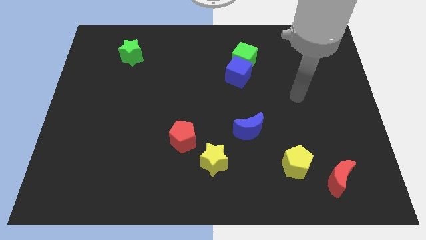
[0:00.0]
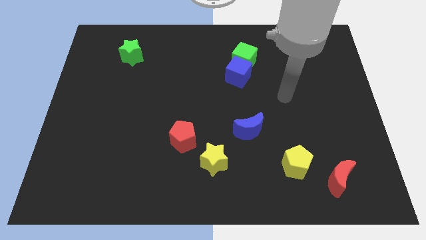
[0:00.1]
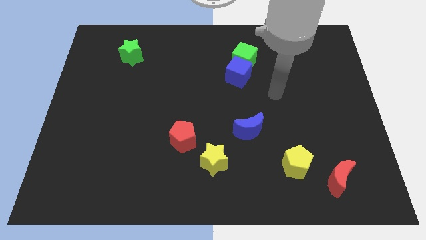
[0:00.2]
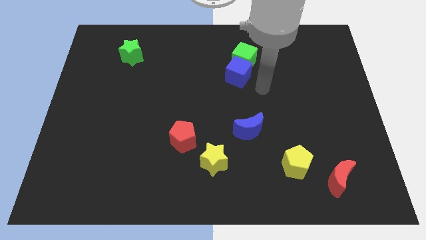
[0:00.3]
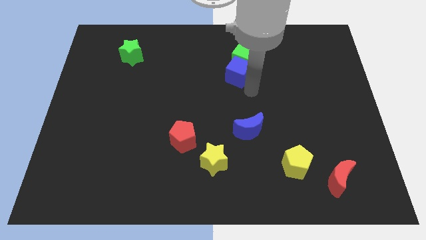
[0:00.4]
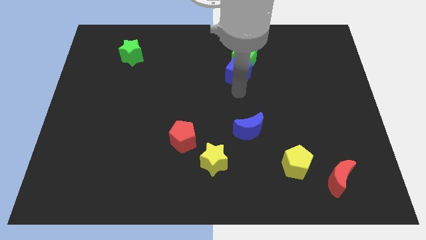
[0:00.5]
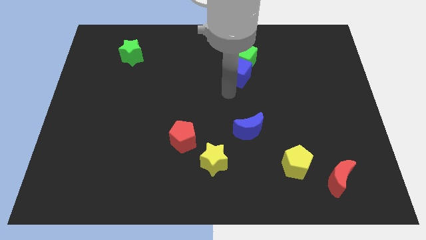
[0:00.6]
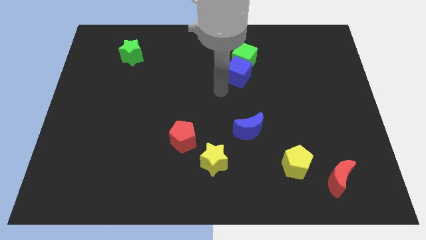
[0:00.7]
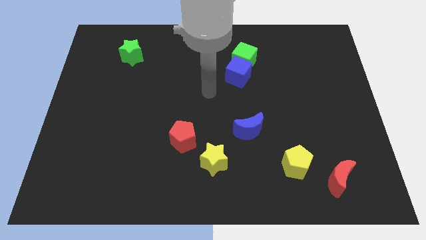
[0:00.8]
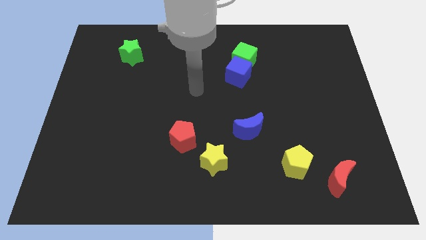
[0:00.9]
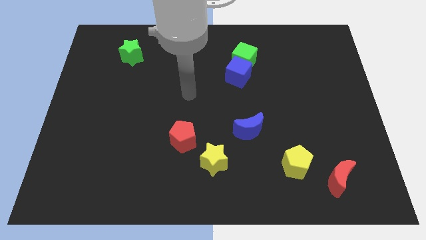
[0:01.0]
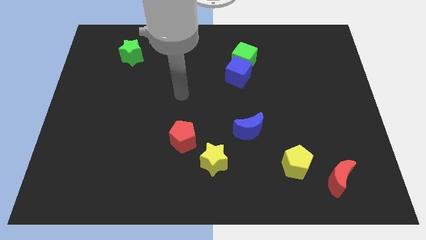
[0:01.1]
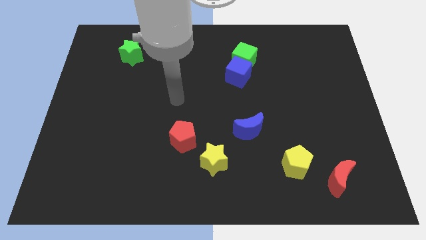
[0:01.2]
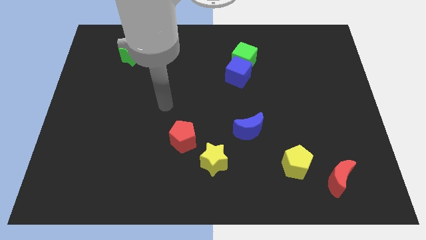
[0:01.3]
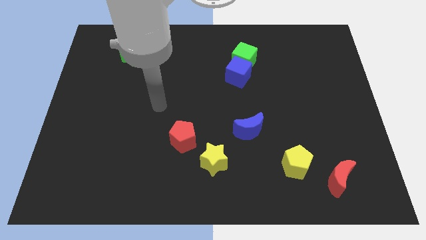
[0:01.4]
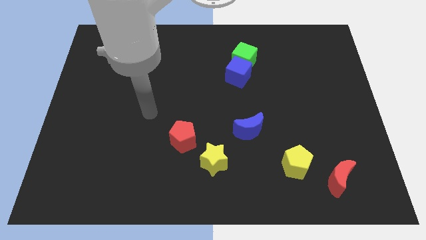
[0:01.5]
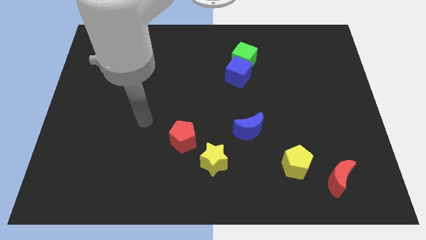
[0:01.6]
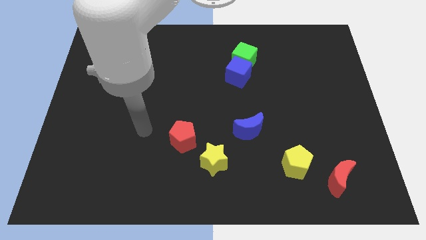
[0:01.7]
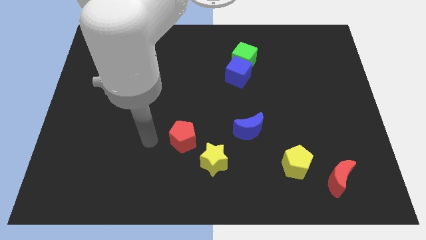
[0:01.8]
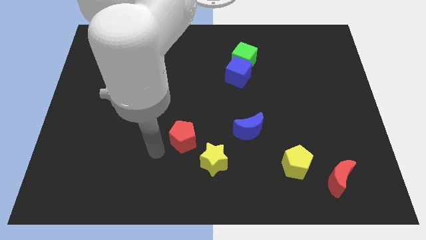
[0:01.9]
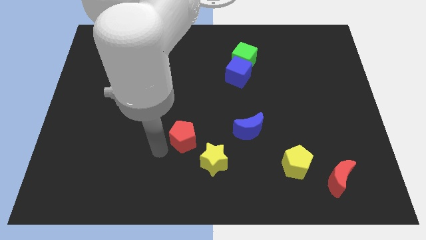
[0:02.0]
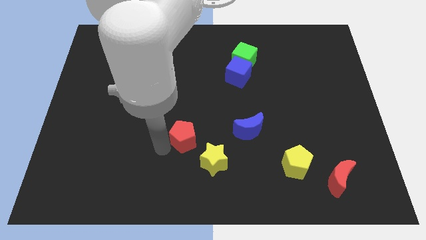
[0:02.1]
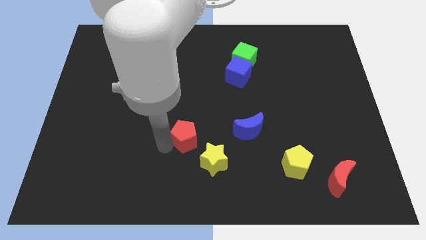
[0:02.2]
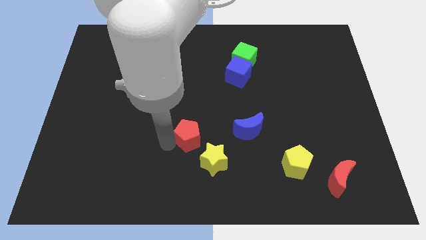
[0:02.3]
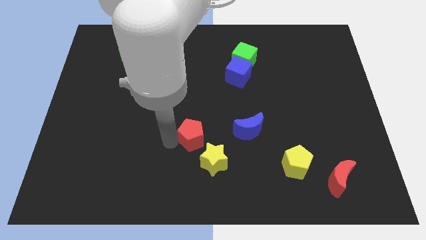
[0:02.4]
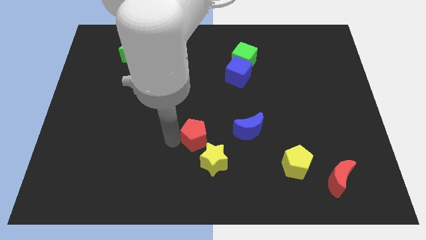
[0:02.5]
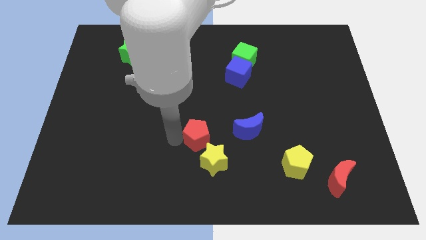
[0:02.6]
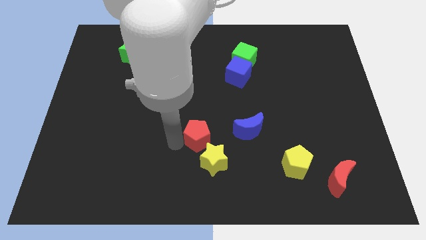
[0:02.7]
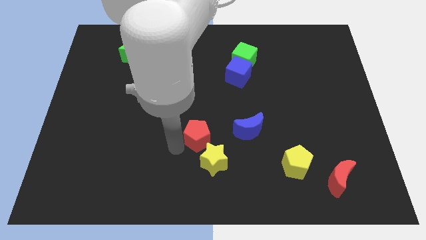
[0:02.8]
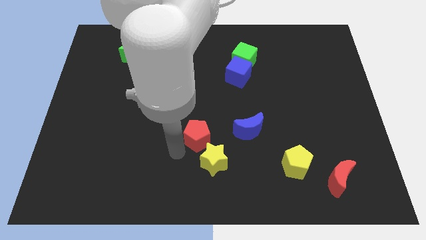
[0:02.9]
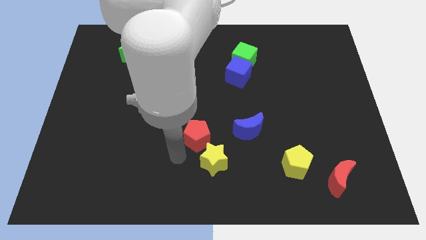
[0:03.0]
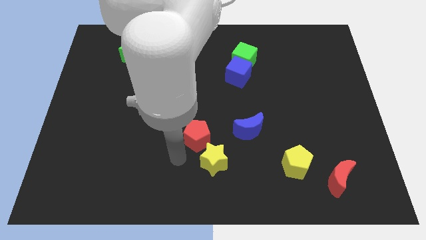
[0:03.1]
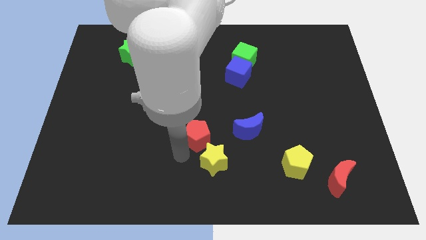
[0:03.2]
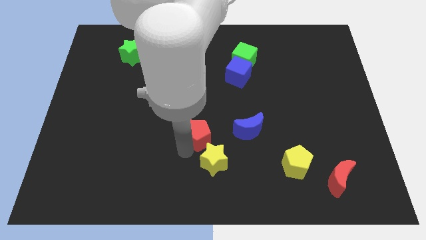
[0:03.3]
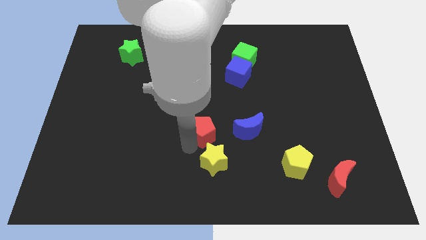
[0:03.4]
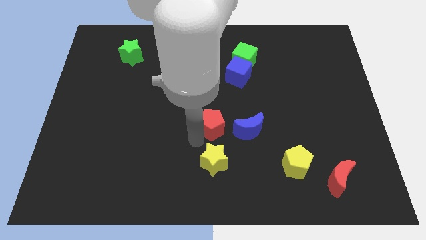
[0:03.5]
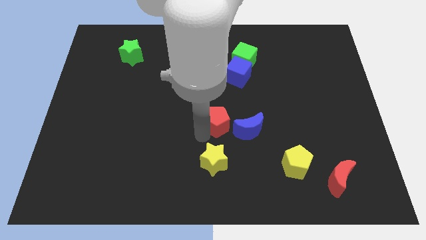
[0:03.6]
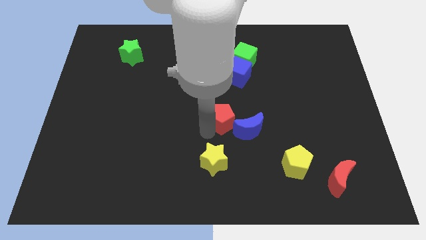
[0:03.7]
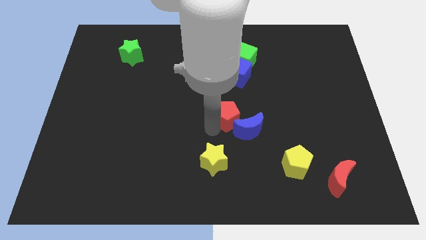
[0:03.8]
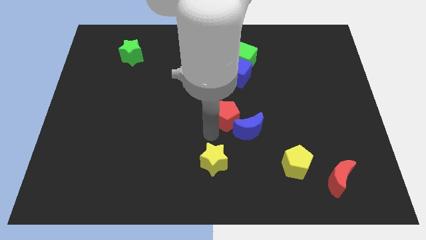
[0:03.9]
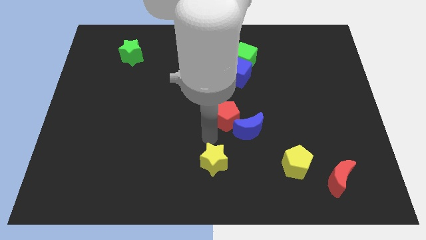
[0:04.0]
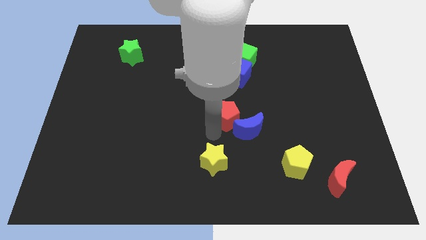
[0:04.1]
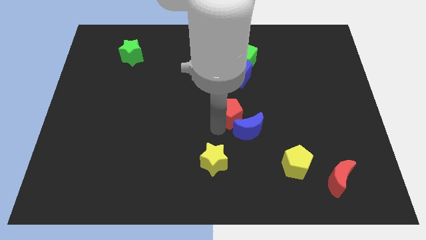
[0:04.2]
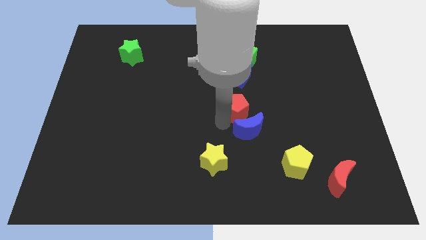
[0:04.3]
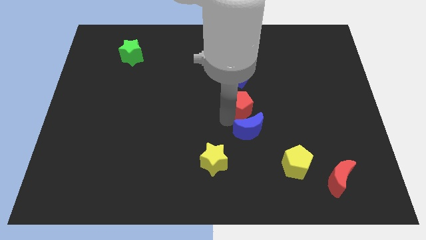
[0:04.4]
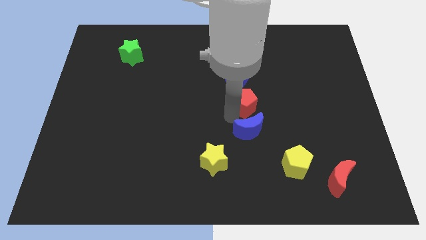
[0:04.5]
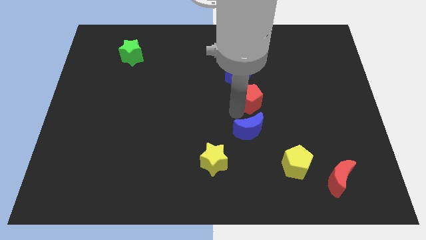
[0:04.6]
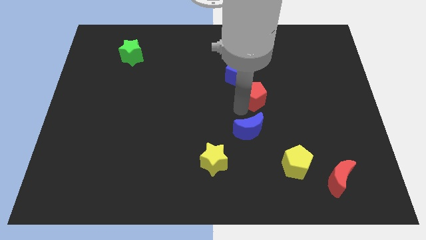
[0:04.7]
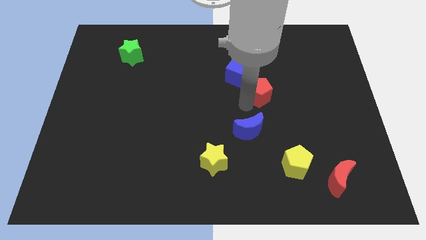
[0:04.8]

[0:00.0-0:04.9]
slide the red pentagon diagonally upwards and to the right

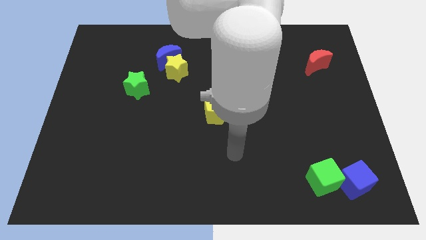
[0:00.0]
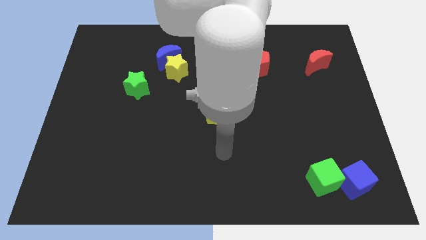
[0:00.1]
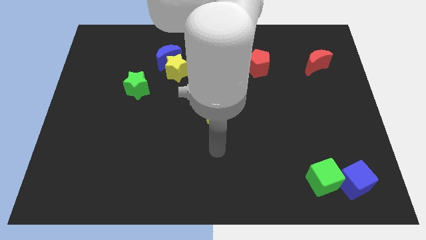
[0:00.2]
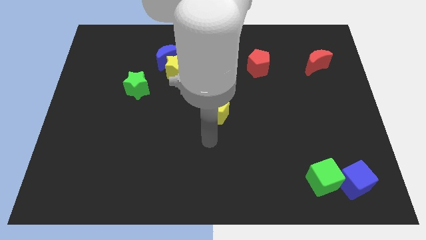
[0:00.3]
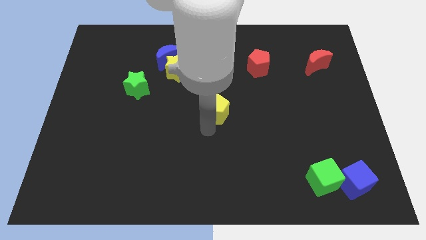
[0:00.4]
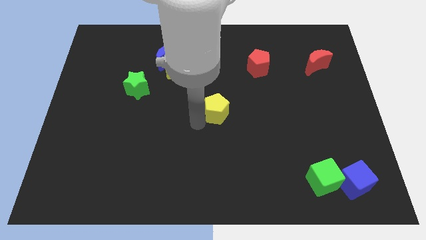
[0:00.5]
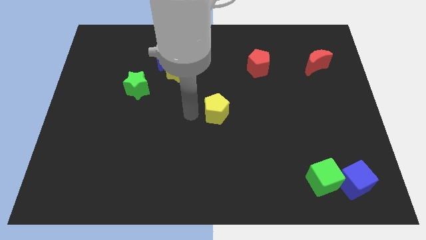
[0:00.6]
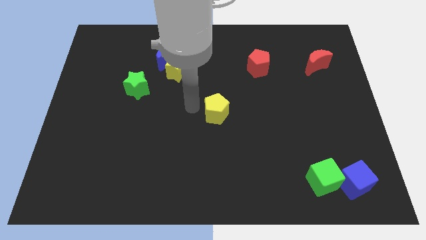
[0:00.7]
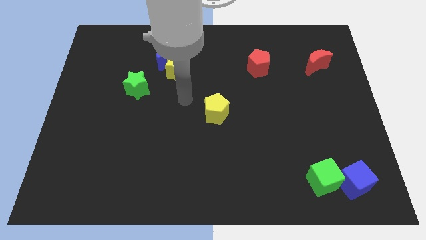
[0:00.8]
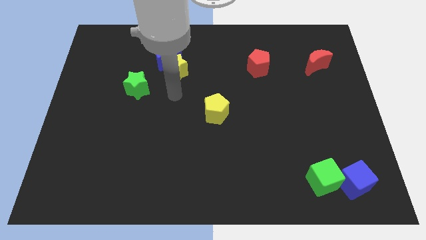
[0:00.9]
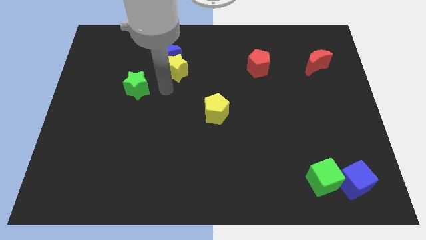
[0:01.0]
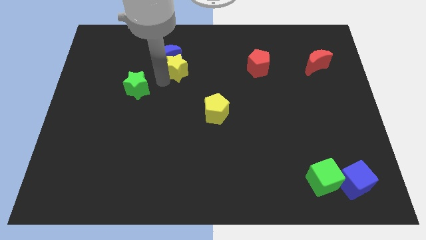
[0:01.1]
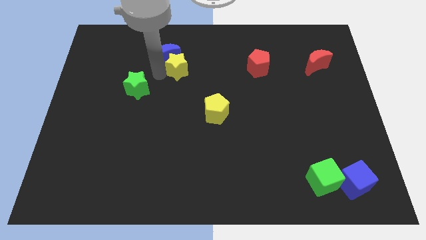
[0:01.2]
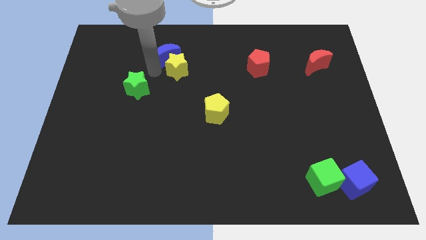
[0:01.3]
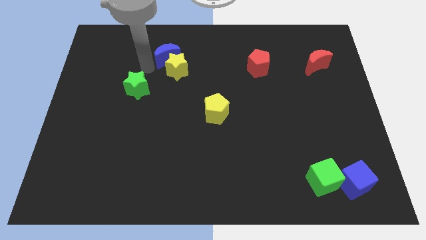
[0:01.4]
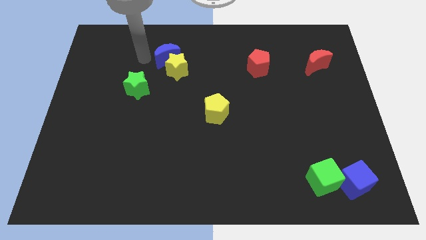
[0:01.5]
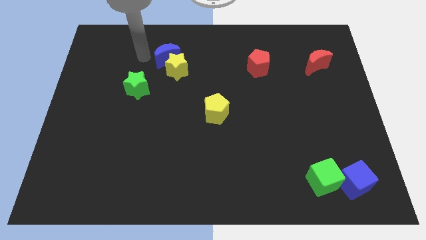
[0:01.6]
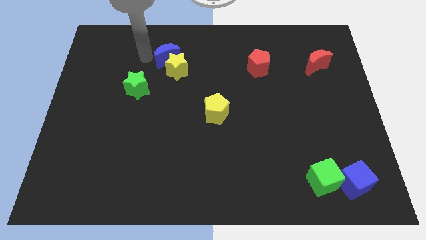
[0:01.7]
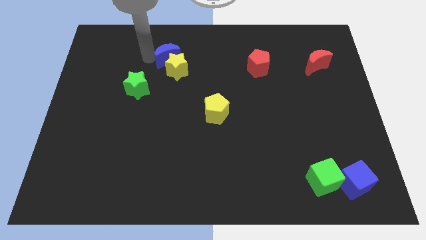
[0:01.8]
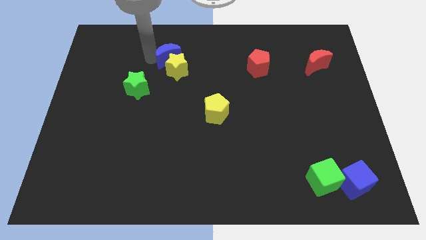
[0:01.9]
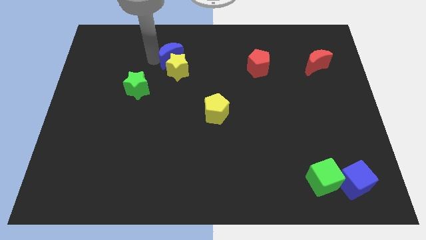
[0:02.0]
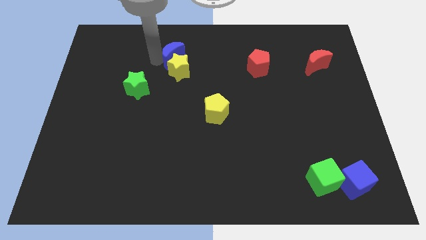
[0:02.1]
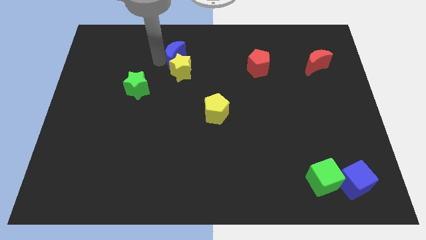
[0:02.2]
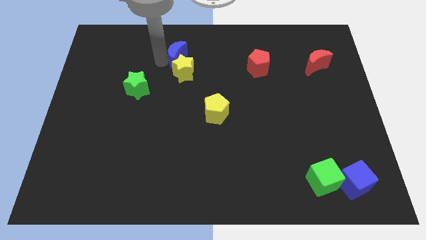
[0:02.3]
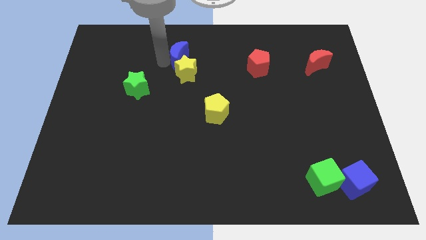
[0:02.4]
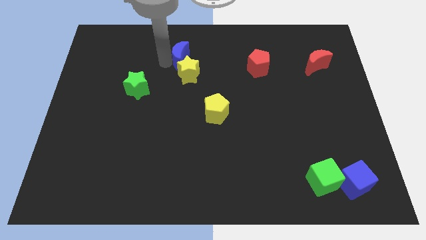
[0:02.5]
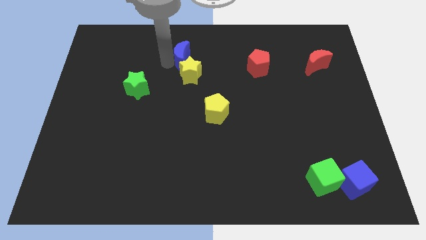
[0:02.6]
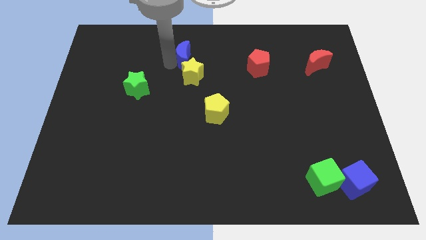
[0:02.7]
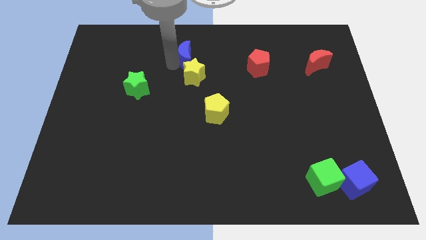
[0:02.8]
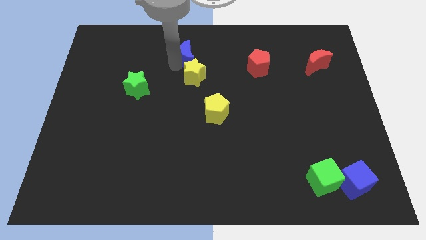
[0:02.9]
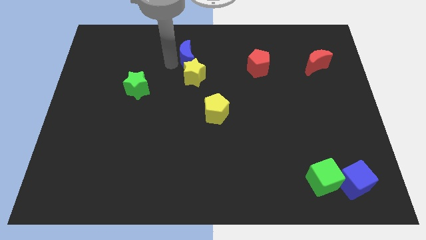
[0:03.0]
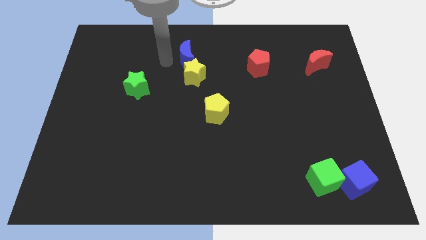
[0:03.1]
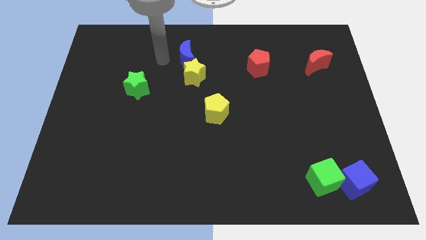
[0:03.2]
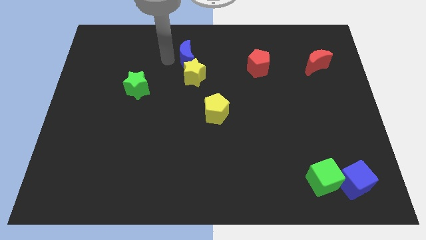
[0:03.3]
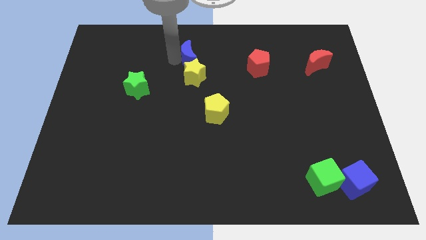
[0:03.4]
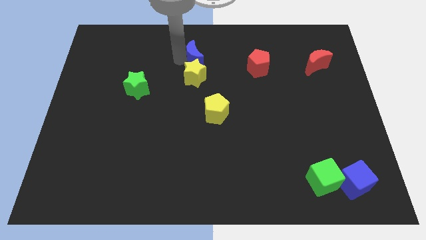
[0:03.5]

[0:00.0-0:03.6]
push the blue moon a bit to the right
